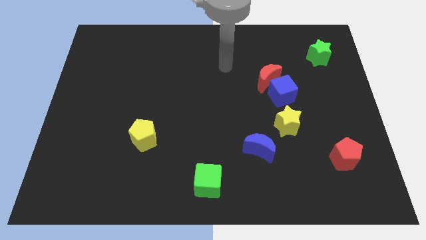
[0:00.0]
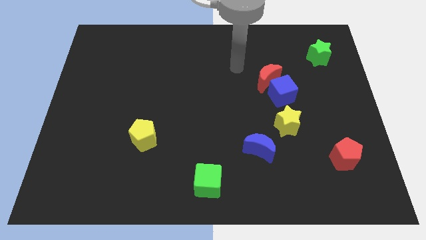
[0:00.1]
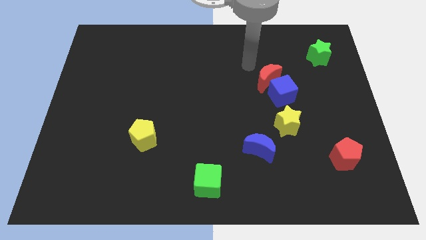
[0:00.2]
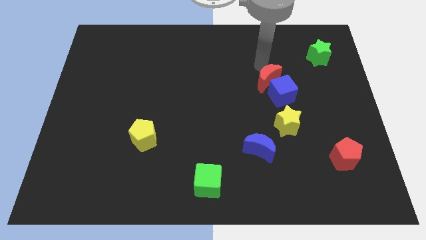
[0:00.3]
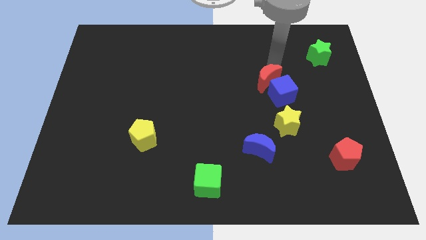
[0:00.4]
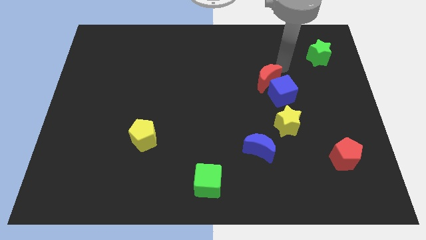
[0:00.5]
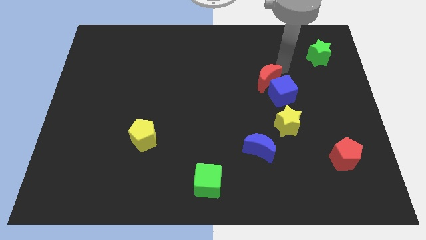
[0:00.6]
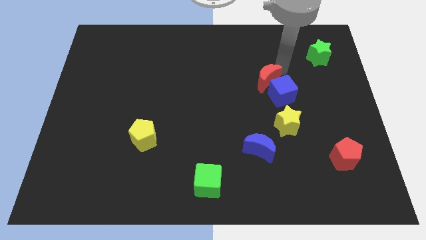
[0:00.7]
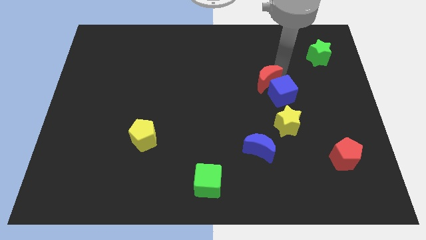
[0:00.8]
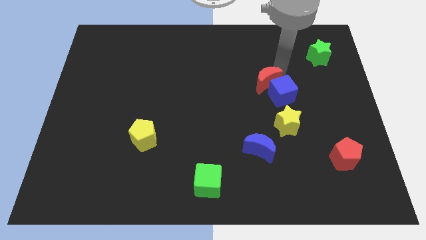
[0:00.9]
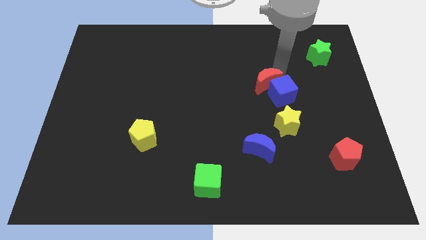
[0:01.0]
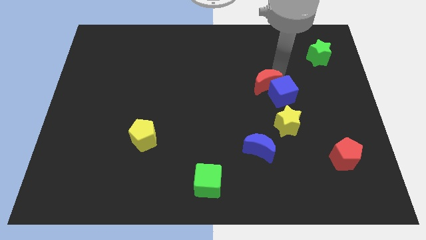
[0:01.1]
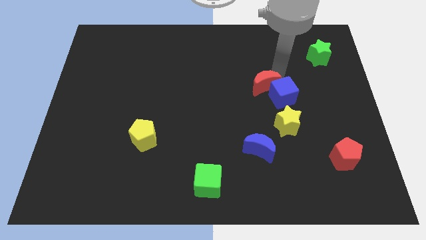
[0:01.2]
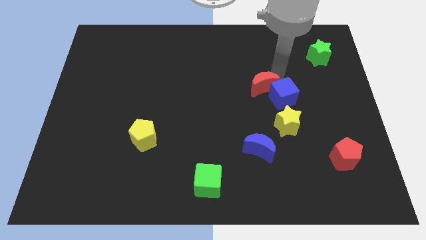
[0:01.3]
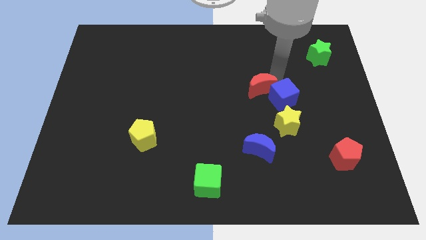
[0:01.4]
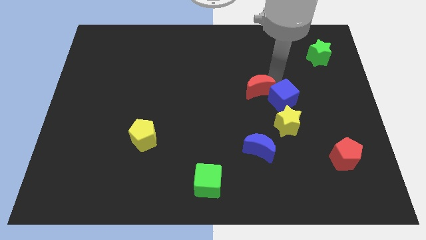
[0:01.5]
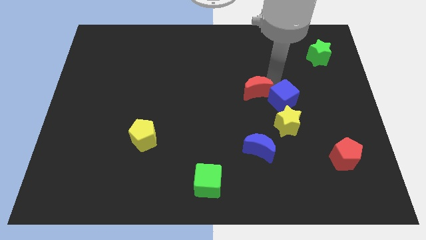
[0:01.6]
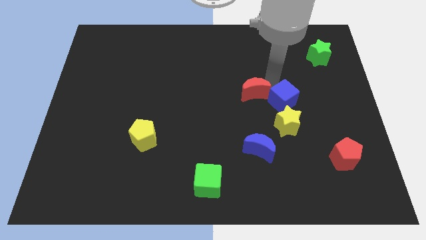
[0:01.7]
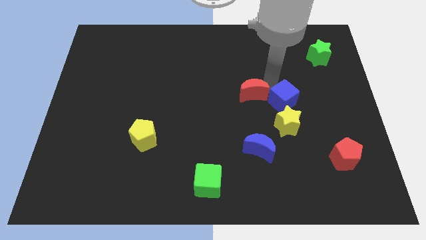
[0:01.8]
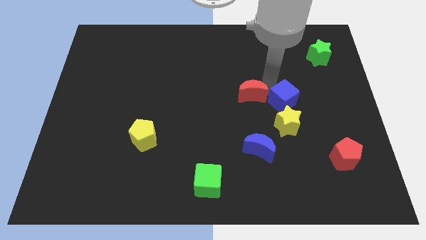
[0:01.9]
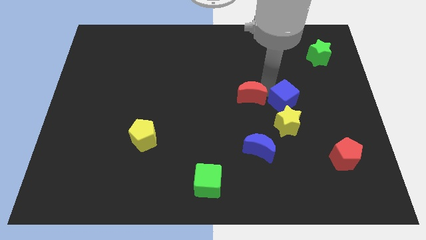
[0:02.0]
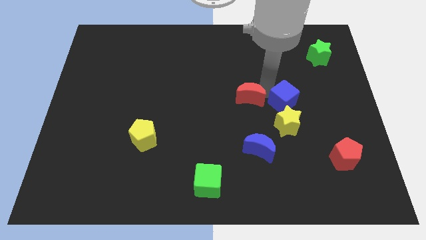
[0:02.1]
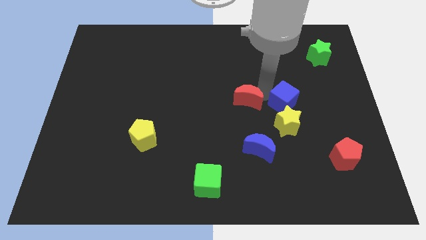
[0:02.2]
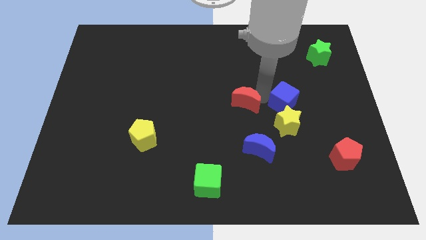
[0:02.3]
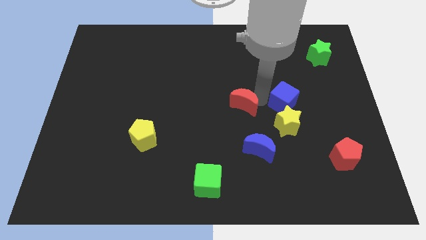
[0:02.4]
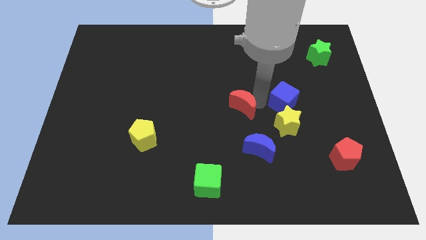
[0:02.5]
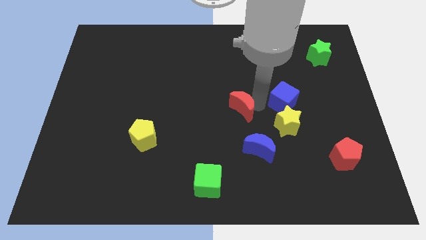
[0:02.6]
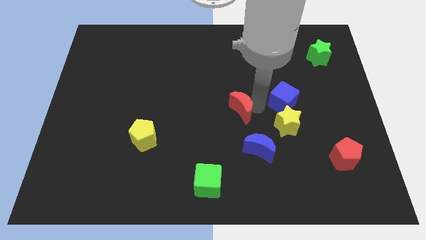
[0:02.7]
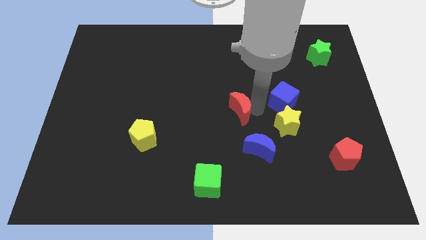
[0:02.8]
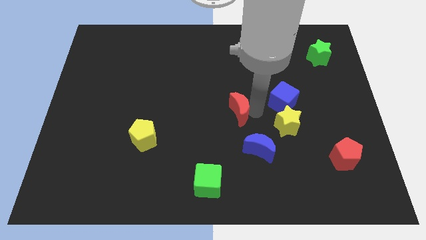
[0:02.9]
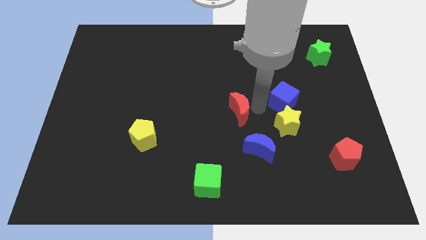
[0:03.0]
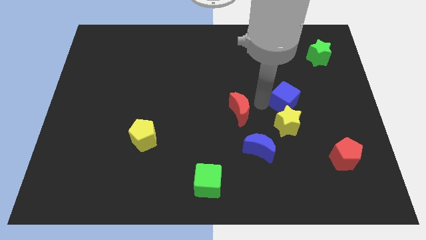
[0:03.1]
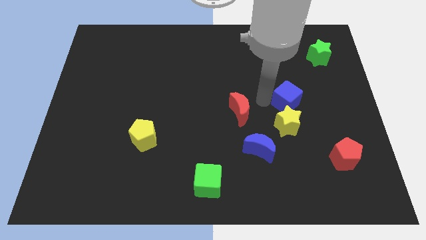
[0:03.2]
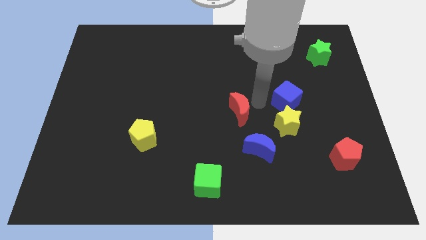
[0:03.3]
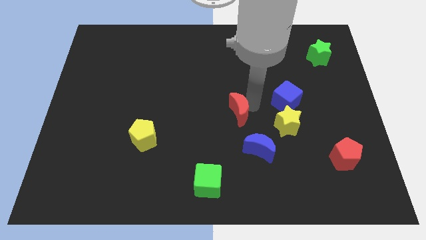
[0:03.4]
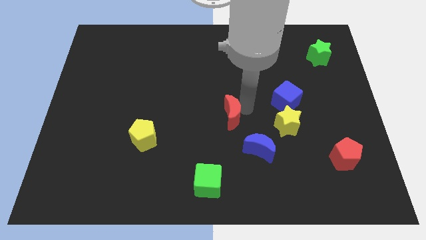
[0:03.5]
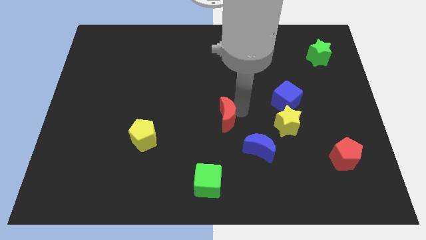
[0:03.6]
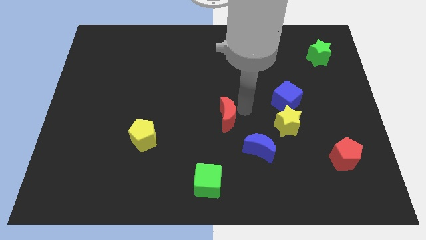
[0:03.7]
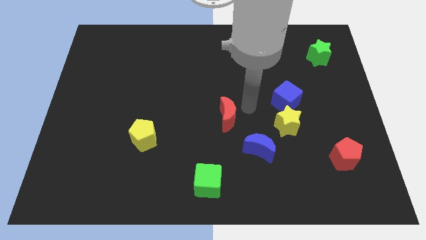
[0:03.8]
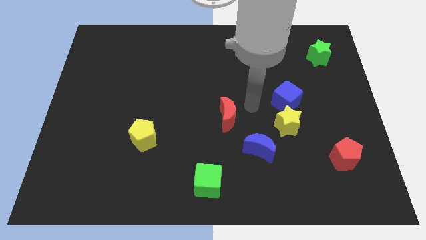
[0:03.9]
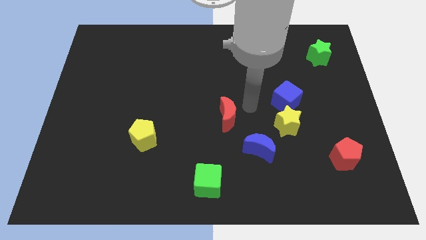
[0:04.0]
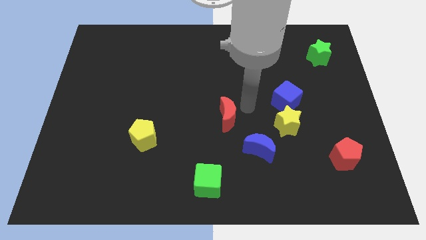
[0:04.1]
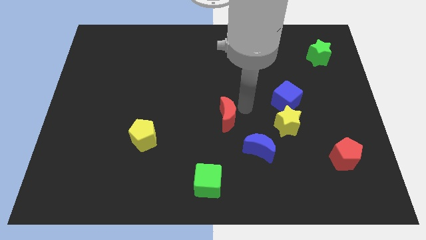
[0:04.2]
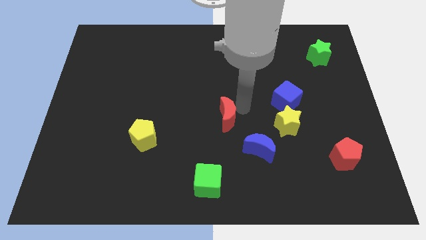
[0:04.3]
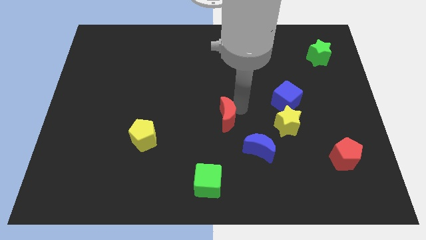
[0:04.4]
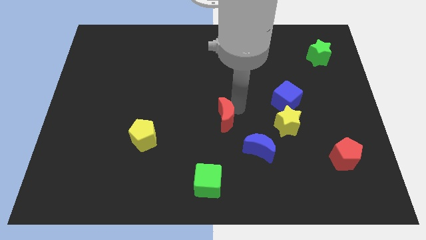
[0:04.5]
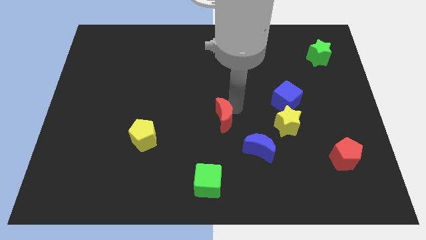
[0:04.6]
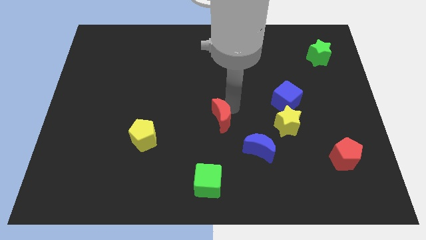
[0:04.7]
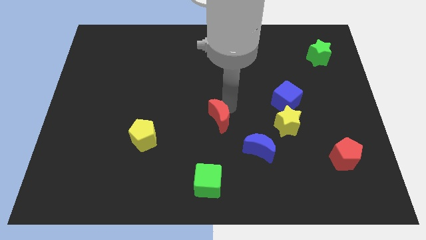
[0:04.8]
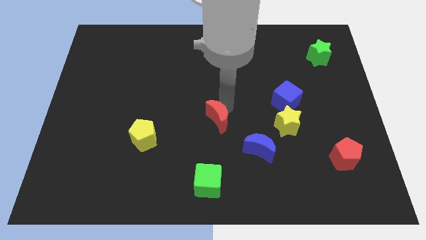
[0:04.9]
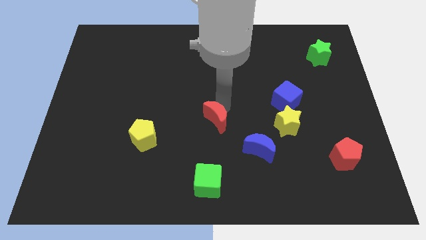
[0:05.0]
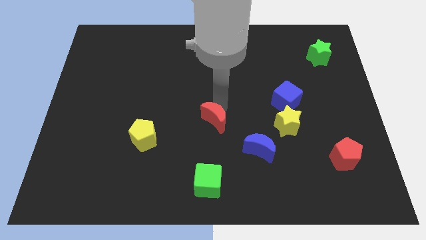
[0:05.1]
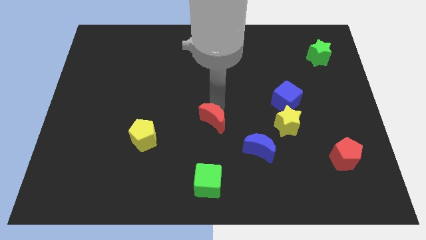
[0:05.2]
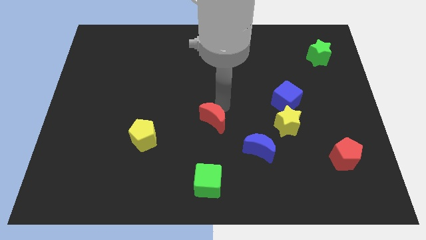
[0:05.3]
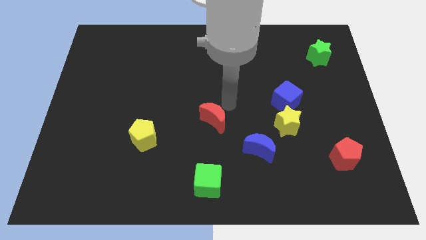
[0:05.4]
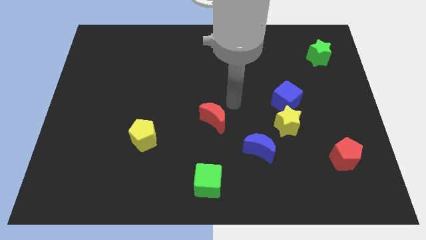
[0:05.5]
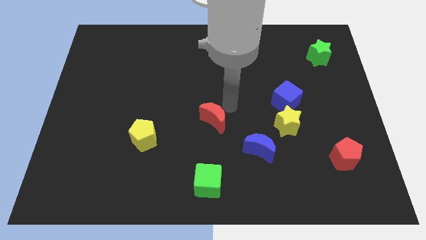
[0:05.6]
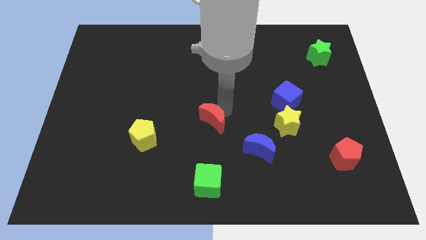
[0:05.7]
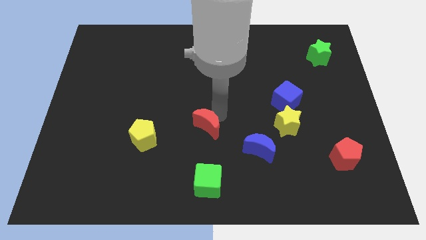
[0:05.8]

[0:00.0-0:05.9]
move the red moon to the right side of the yellow pentagon

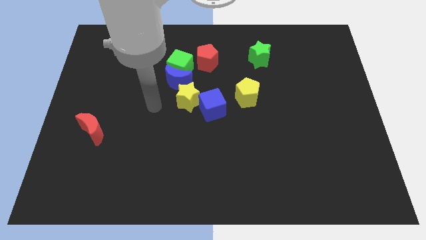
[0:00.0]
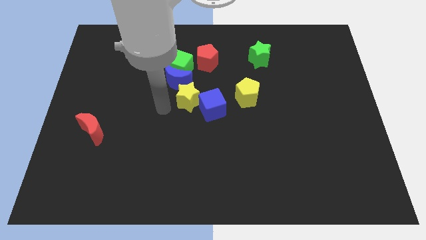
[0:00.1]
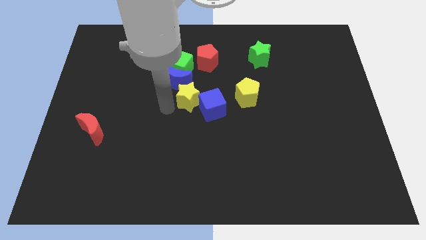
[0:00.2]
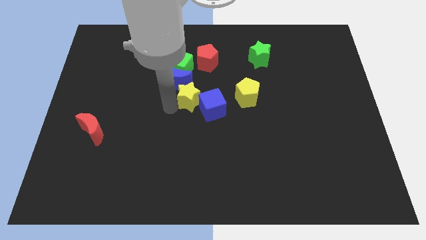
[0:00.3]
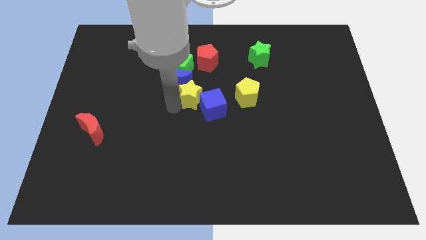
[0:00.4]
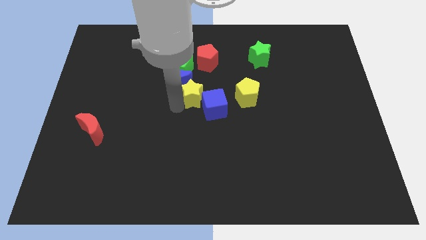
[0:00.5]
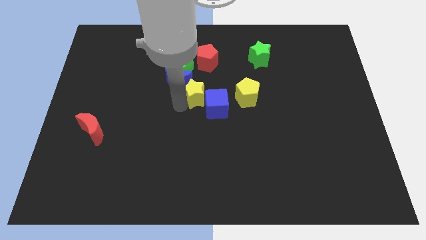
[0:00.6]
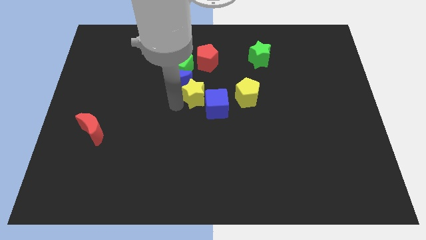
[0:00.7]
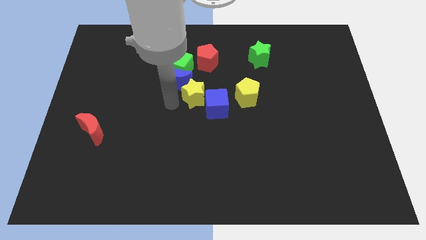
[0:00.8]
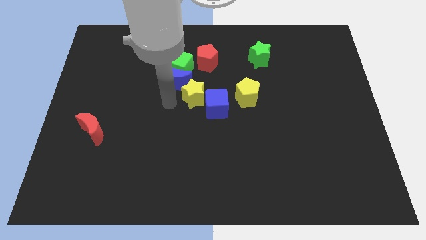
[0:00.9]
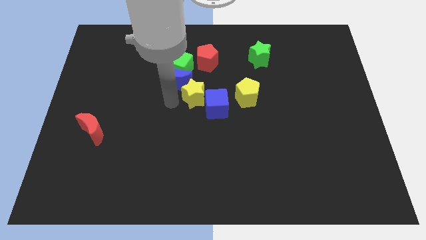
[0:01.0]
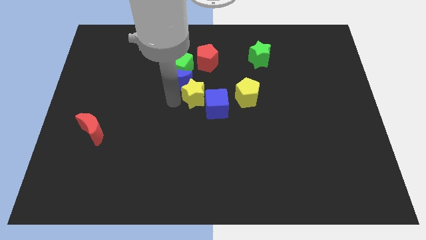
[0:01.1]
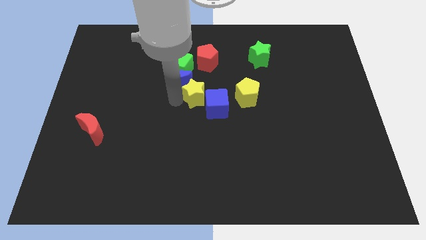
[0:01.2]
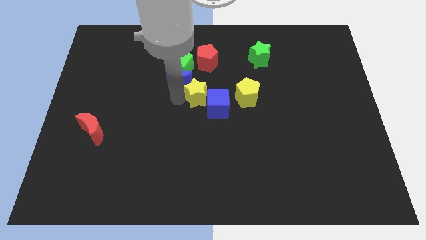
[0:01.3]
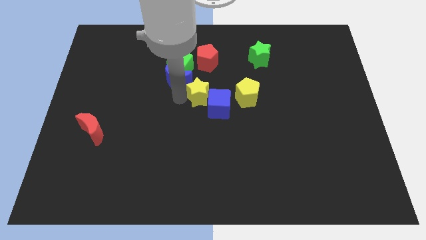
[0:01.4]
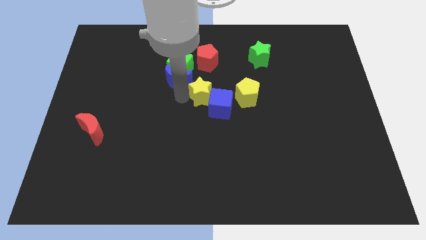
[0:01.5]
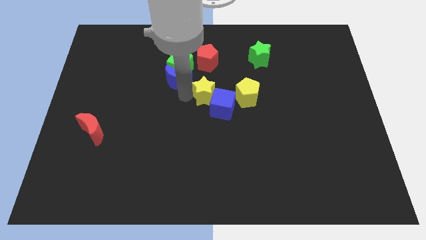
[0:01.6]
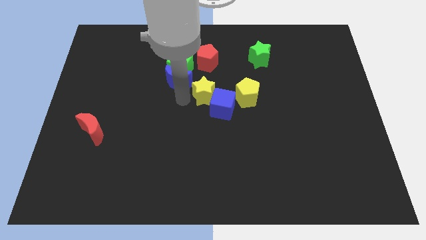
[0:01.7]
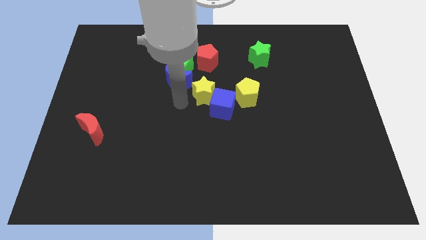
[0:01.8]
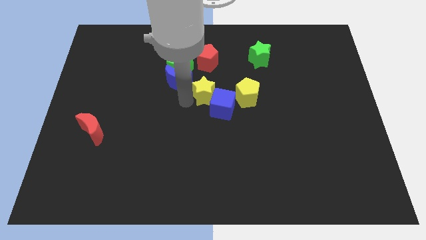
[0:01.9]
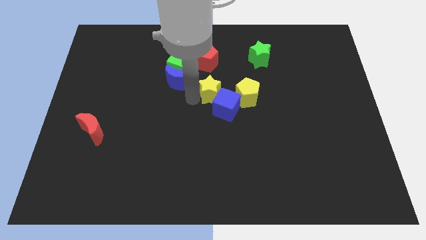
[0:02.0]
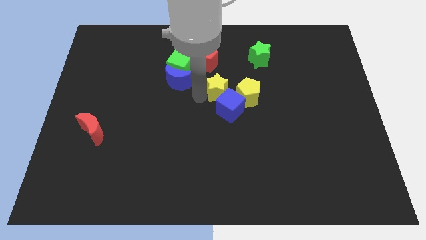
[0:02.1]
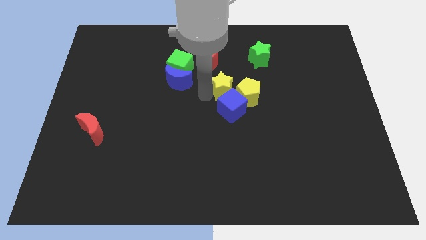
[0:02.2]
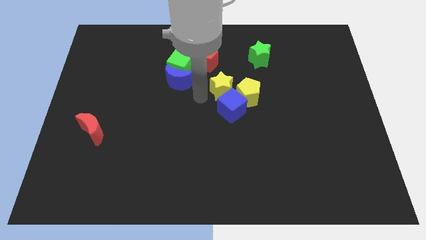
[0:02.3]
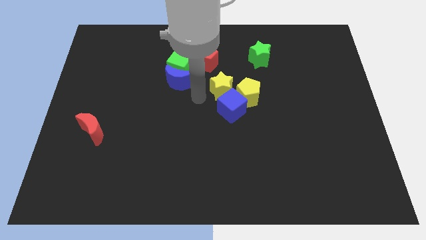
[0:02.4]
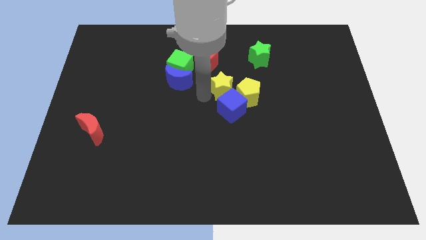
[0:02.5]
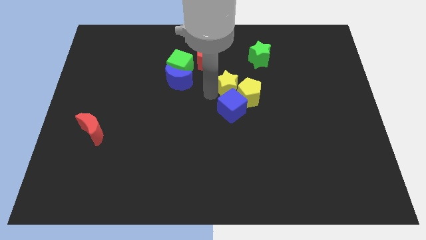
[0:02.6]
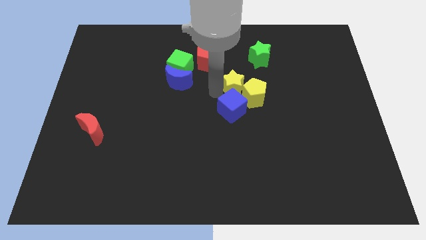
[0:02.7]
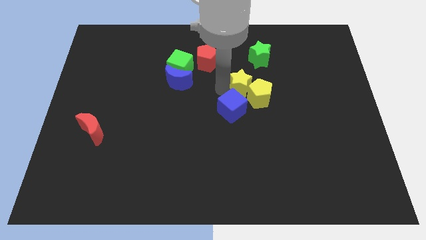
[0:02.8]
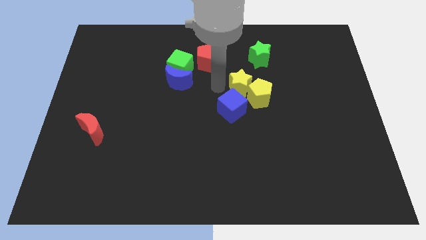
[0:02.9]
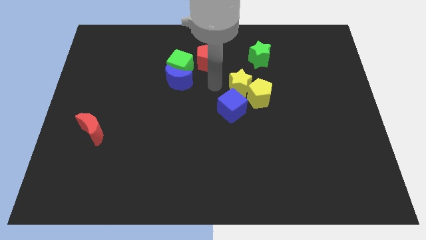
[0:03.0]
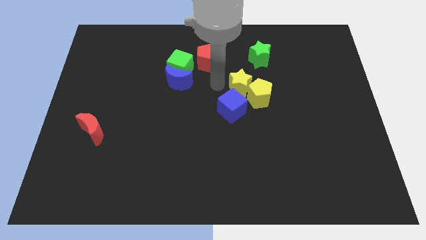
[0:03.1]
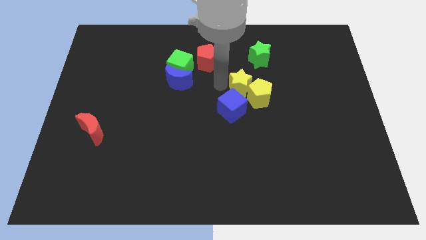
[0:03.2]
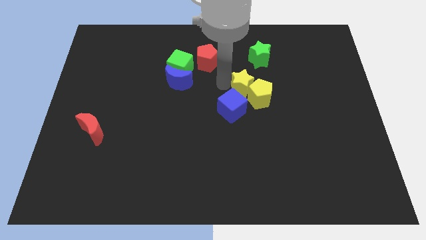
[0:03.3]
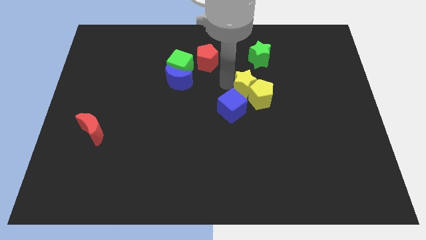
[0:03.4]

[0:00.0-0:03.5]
put the yellow star below the green star
